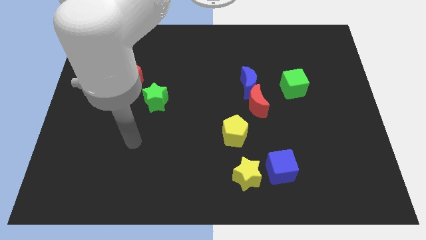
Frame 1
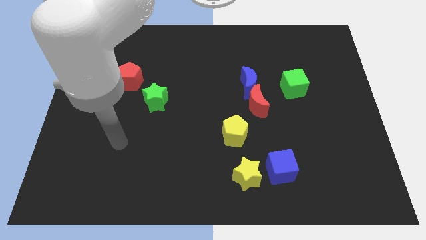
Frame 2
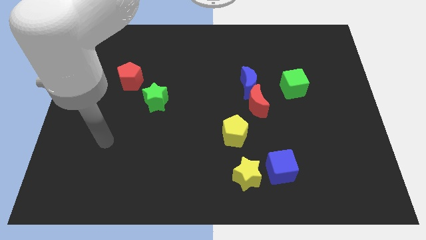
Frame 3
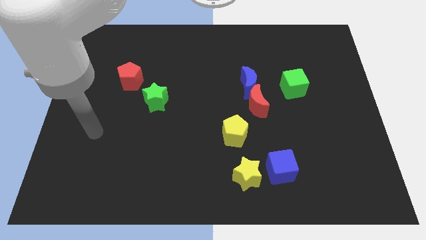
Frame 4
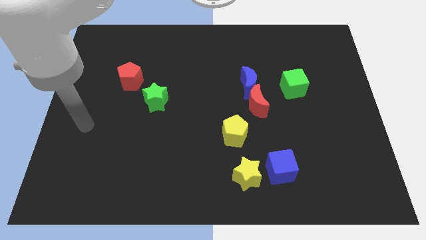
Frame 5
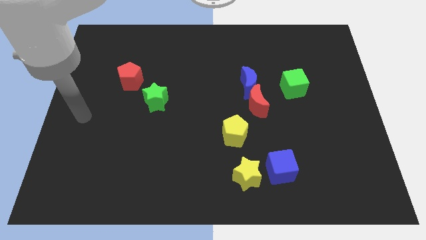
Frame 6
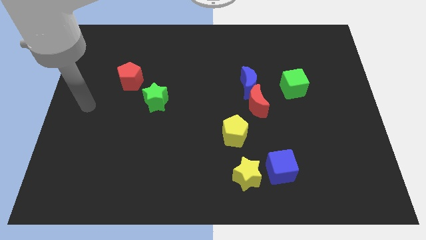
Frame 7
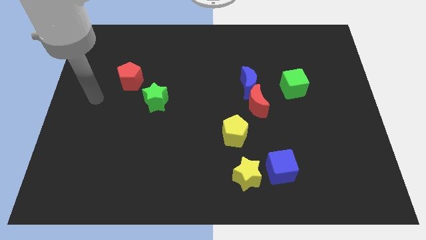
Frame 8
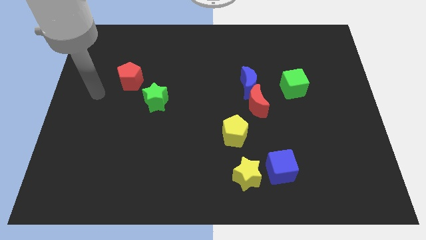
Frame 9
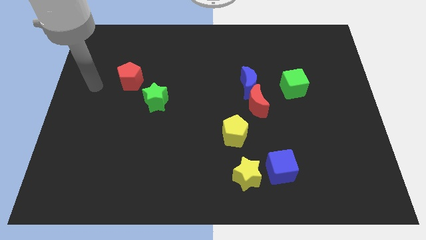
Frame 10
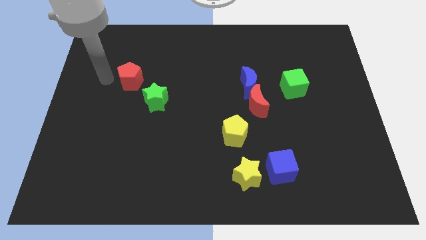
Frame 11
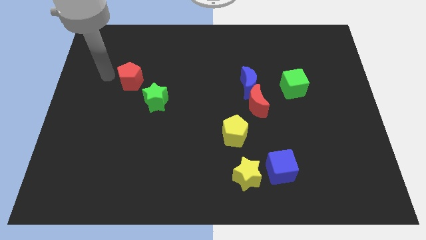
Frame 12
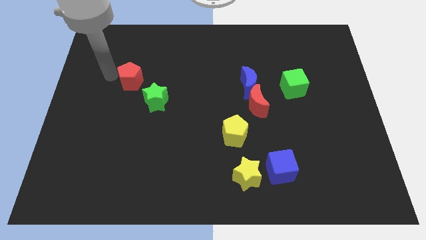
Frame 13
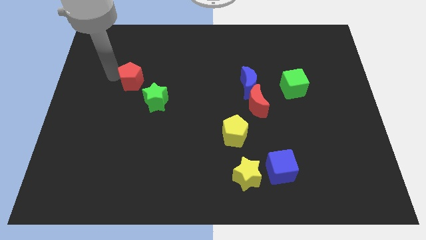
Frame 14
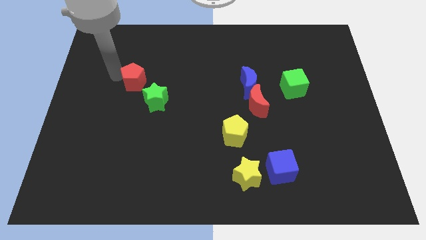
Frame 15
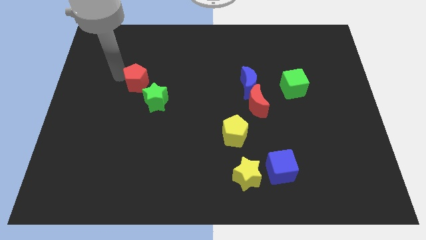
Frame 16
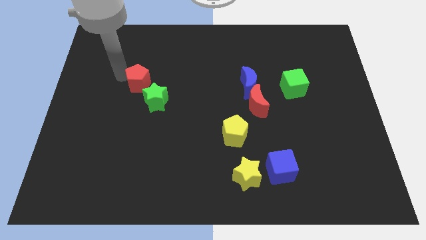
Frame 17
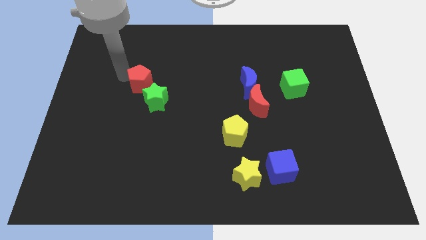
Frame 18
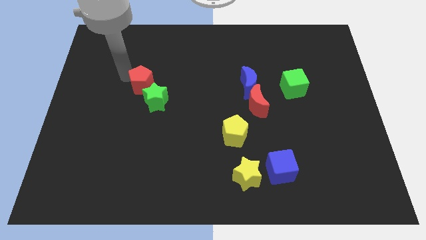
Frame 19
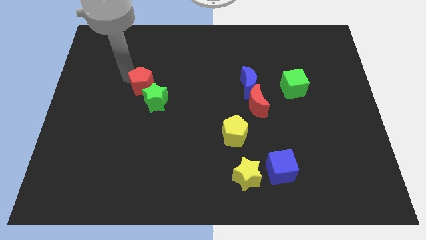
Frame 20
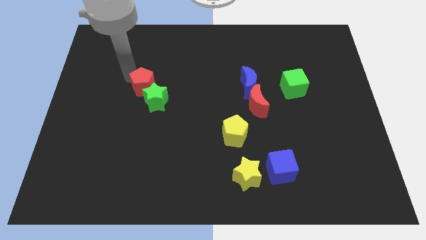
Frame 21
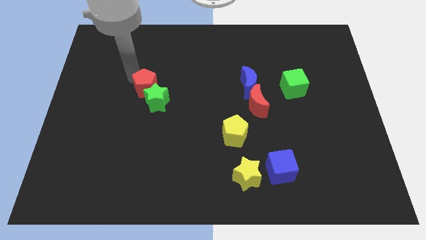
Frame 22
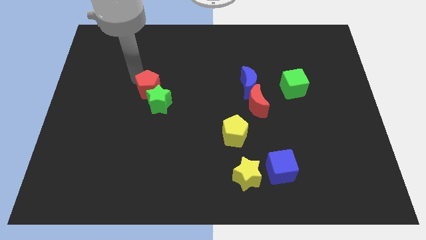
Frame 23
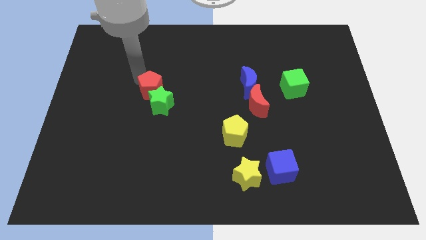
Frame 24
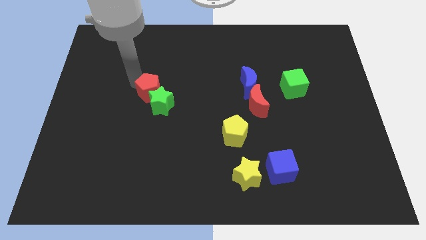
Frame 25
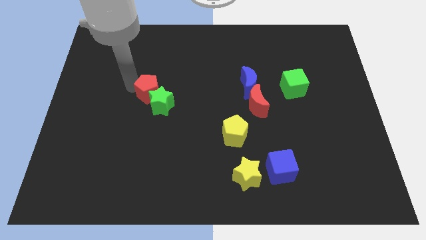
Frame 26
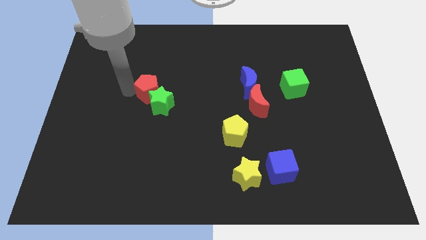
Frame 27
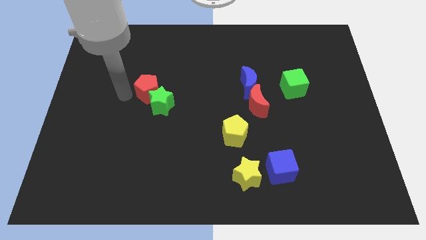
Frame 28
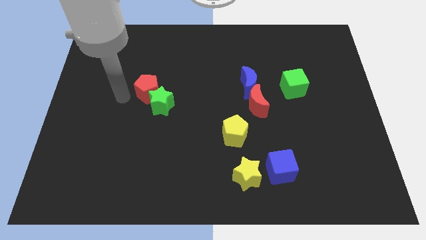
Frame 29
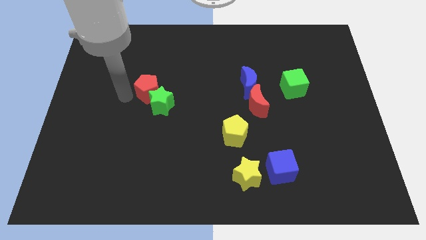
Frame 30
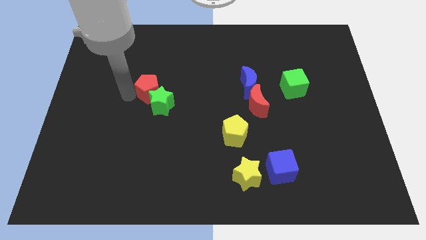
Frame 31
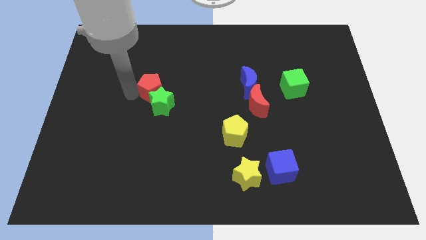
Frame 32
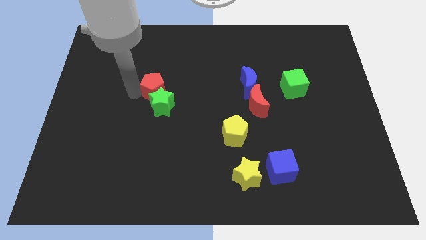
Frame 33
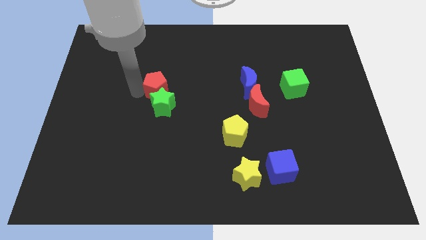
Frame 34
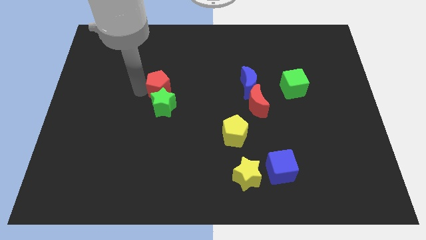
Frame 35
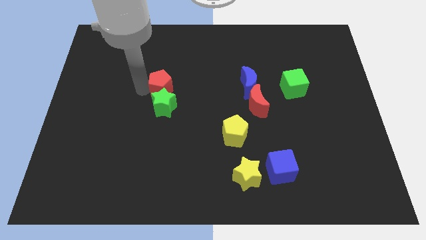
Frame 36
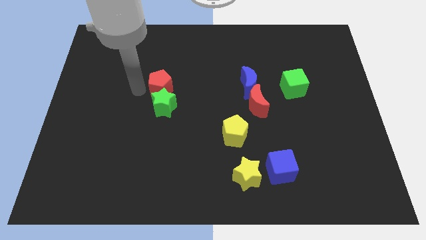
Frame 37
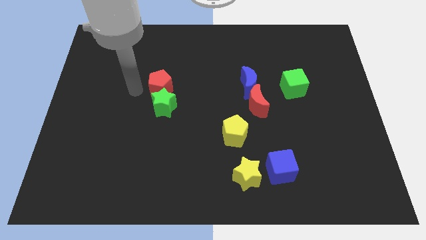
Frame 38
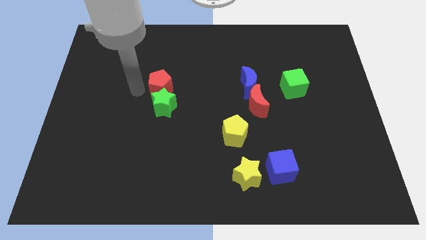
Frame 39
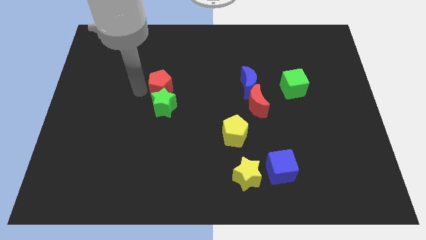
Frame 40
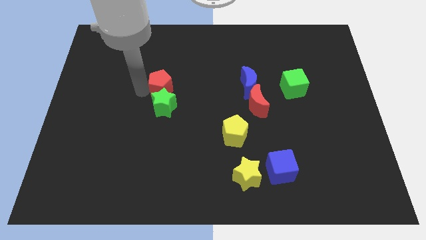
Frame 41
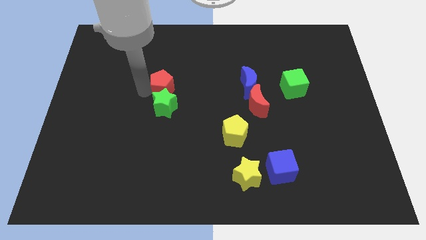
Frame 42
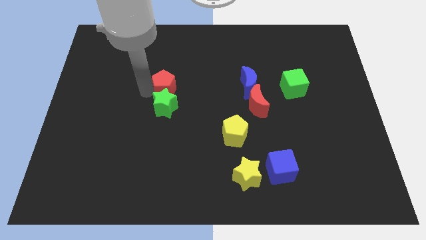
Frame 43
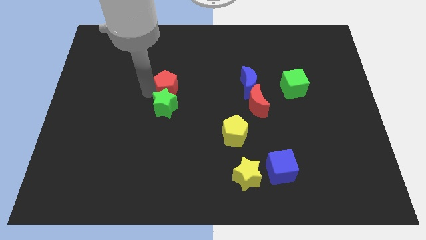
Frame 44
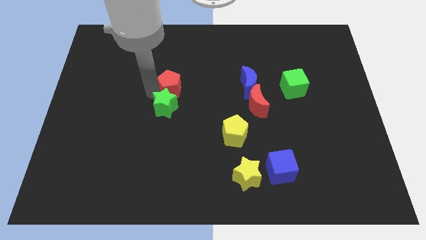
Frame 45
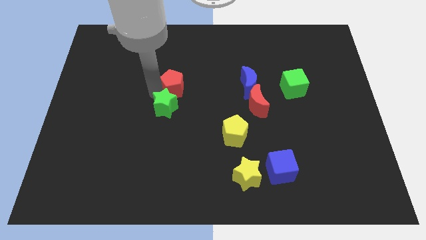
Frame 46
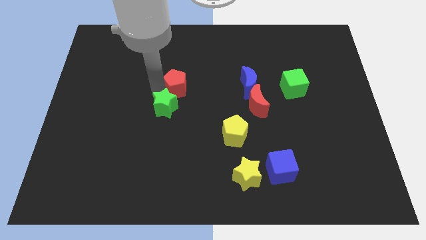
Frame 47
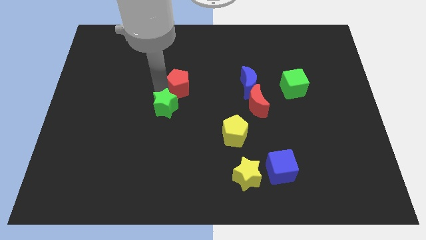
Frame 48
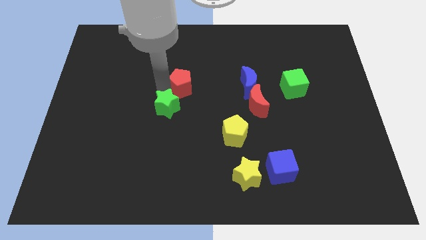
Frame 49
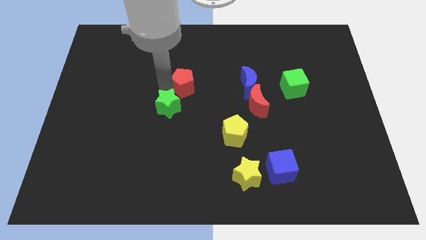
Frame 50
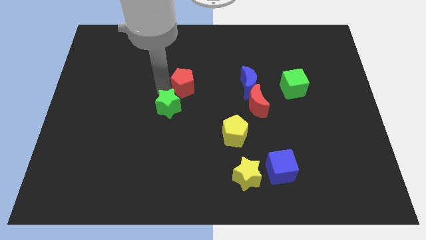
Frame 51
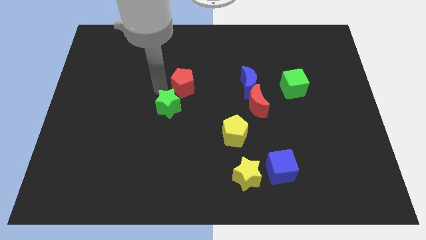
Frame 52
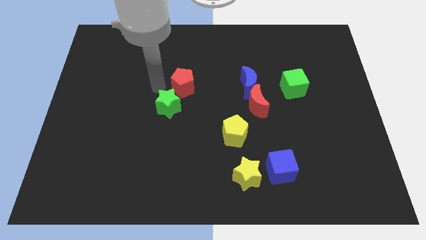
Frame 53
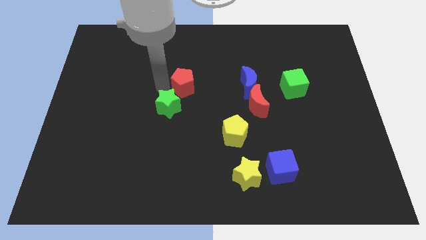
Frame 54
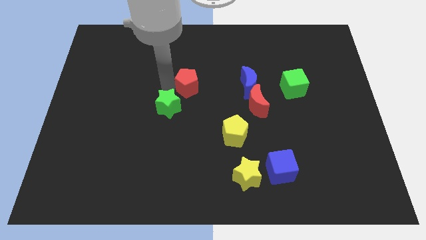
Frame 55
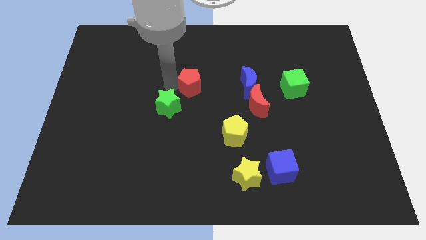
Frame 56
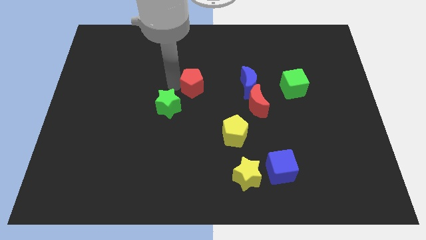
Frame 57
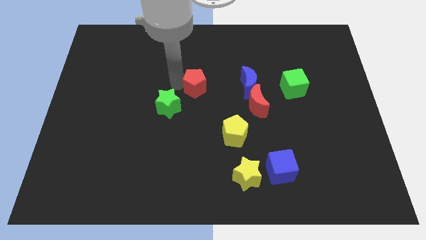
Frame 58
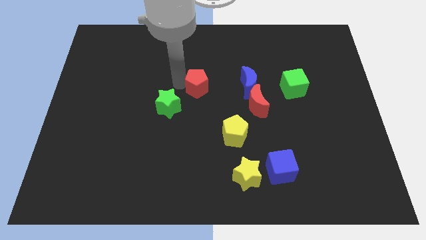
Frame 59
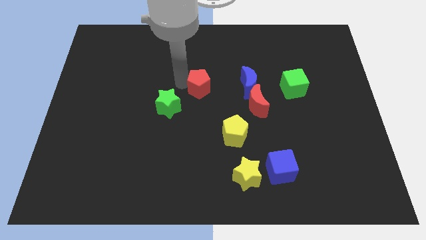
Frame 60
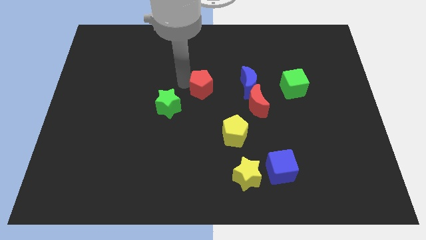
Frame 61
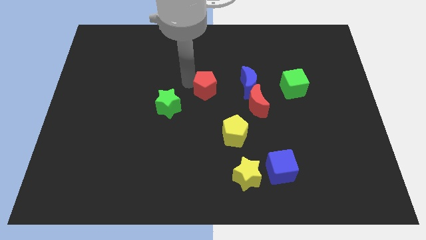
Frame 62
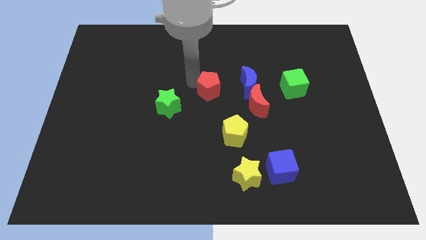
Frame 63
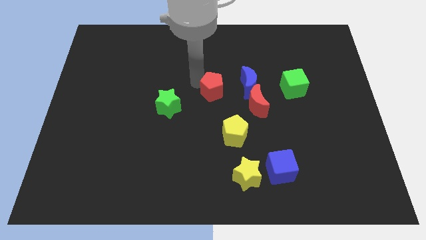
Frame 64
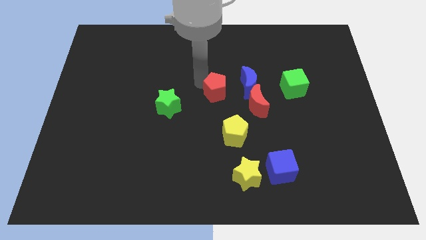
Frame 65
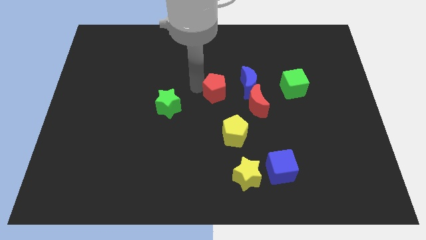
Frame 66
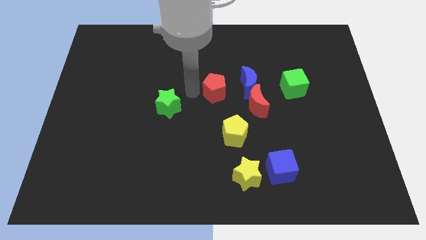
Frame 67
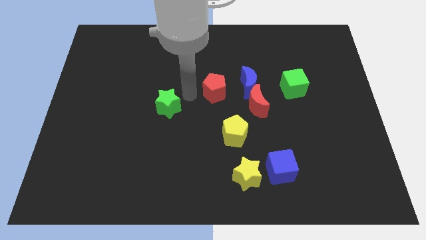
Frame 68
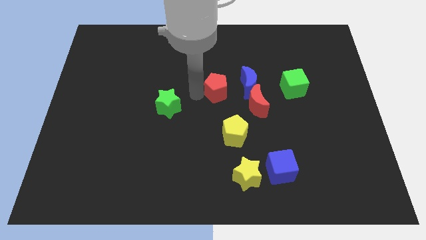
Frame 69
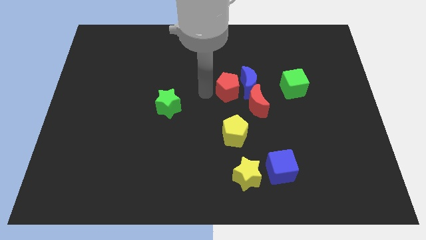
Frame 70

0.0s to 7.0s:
push the red pentagon close to the blue moon
